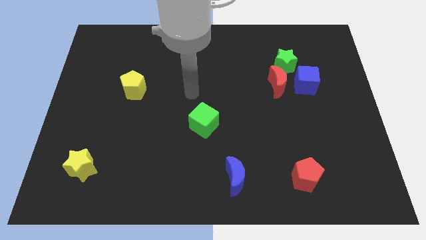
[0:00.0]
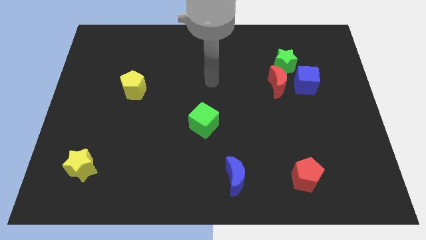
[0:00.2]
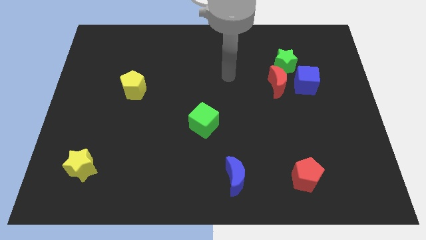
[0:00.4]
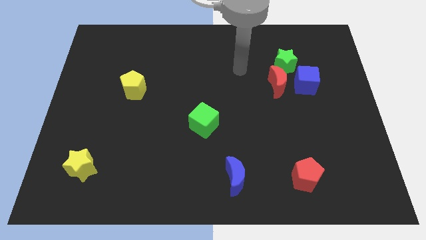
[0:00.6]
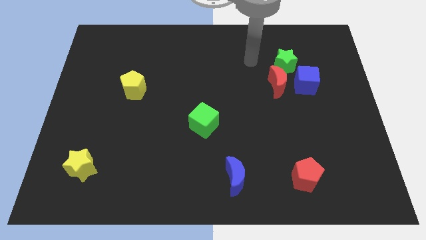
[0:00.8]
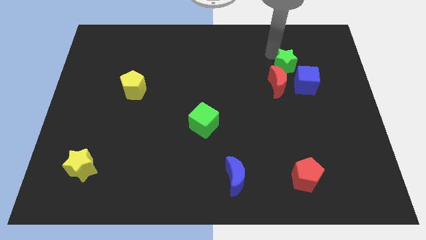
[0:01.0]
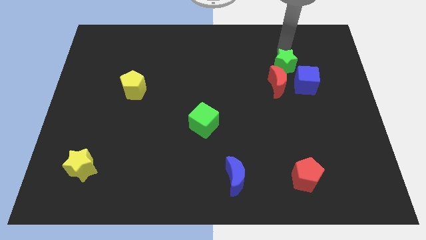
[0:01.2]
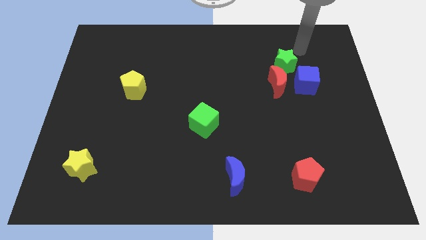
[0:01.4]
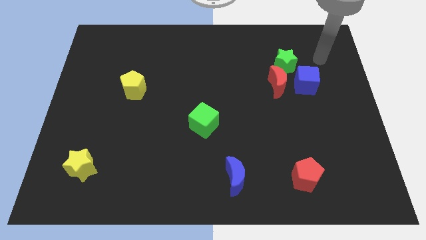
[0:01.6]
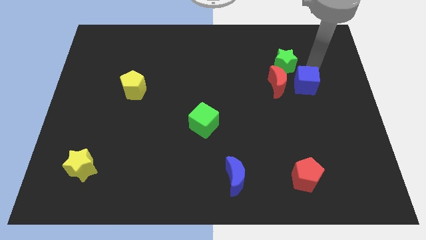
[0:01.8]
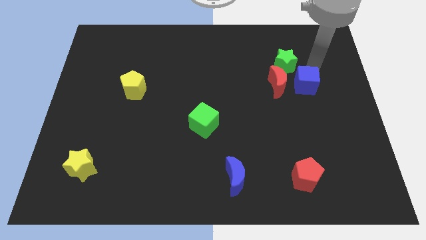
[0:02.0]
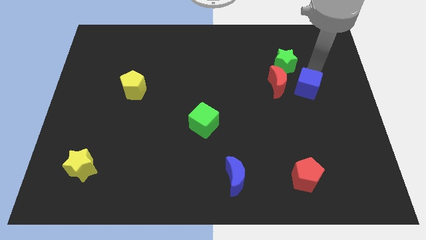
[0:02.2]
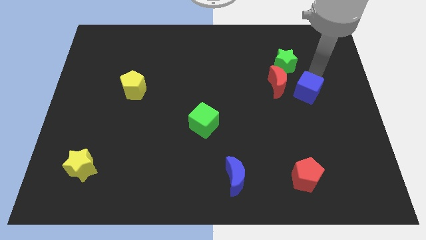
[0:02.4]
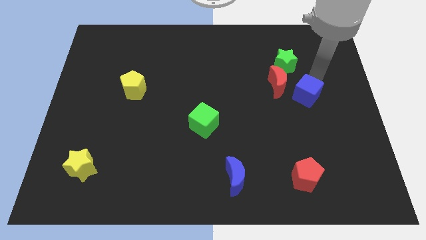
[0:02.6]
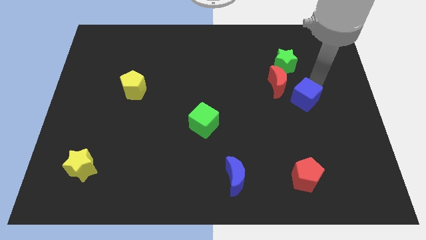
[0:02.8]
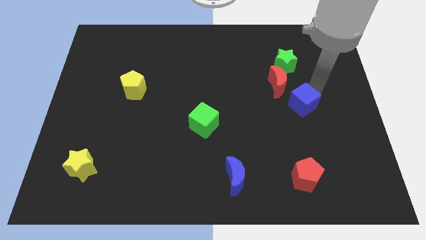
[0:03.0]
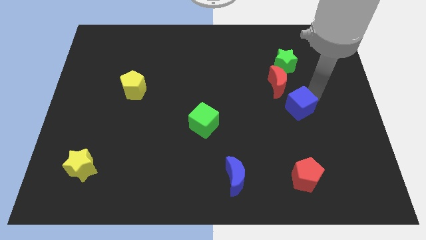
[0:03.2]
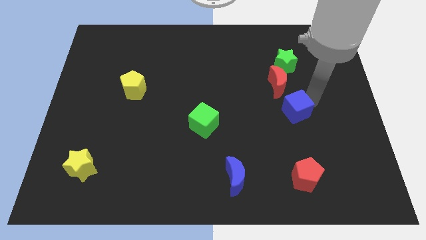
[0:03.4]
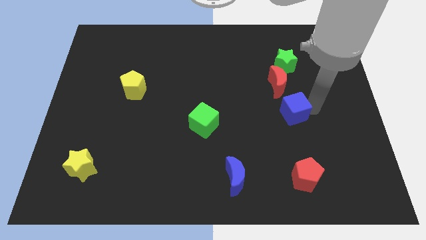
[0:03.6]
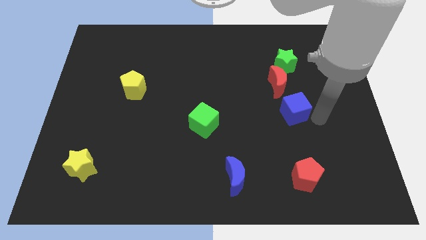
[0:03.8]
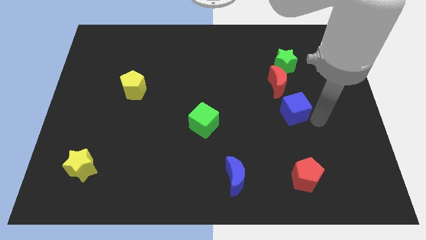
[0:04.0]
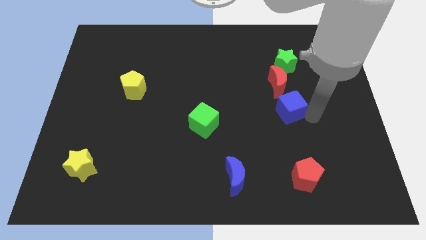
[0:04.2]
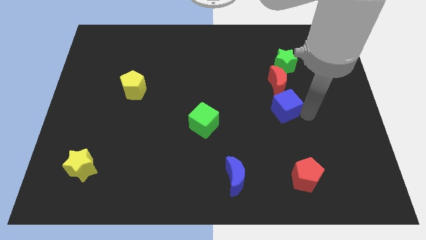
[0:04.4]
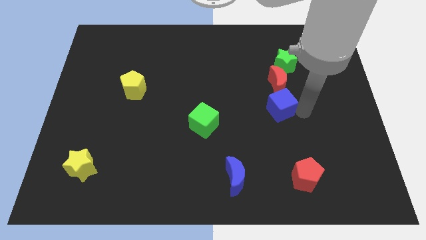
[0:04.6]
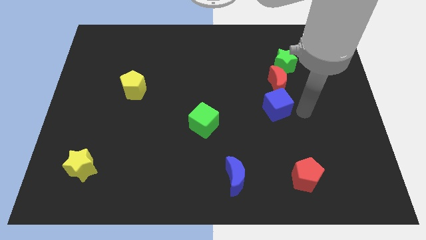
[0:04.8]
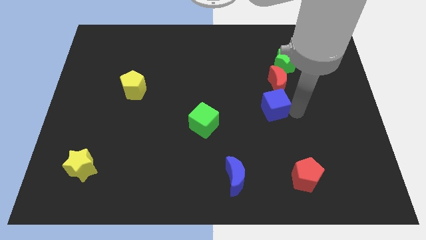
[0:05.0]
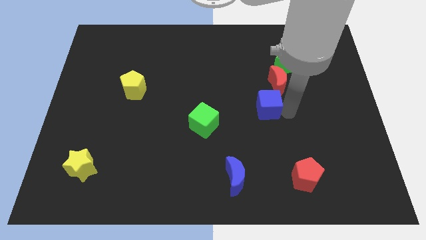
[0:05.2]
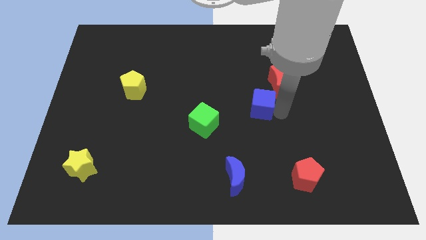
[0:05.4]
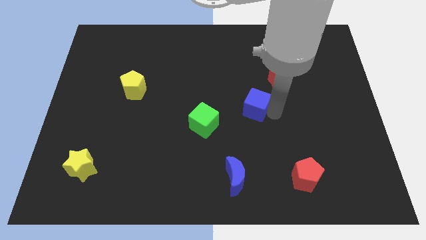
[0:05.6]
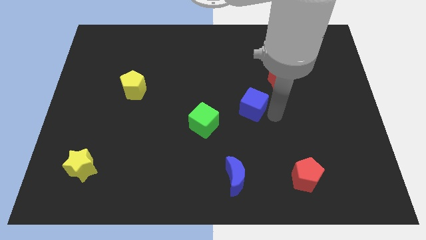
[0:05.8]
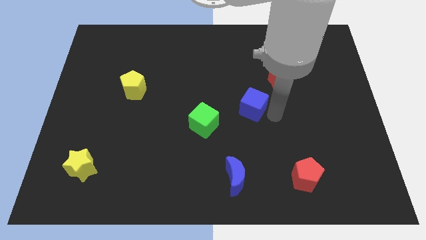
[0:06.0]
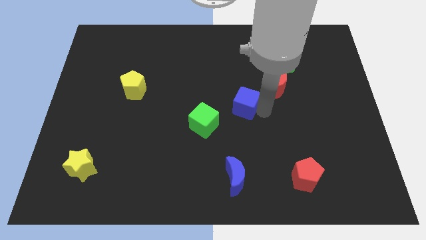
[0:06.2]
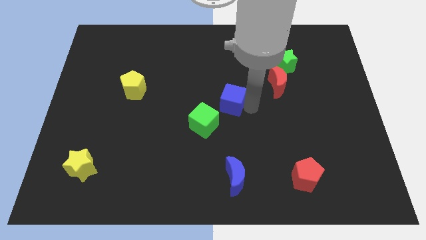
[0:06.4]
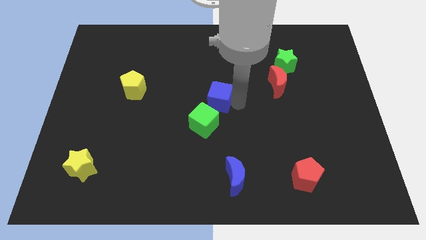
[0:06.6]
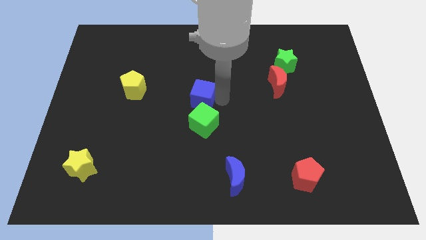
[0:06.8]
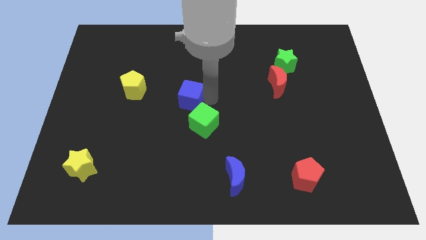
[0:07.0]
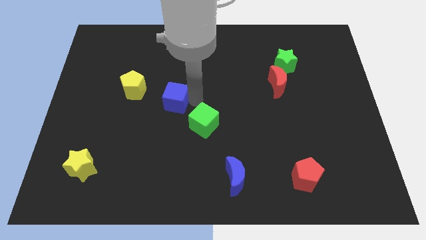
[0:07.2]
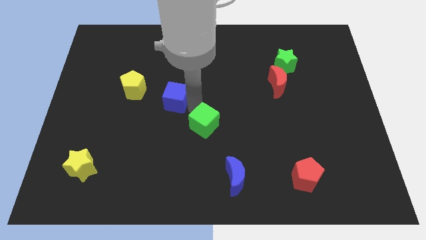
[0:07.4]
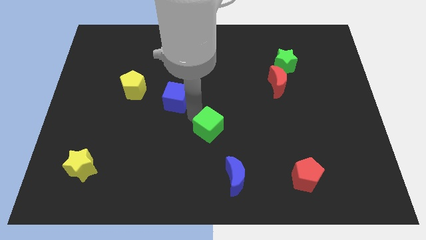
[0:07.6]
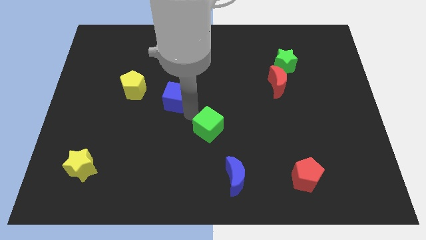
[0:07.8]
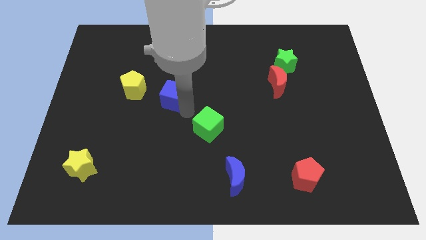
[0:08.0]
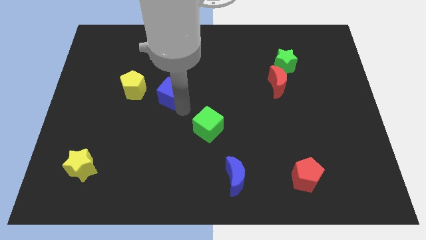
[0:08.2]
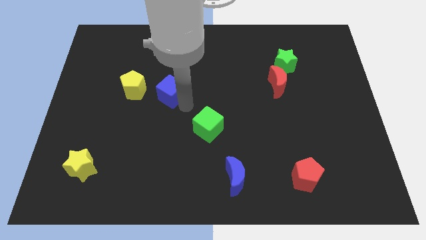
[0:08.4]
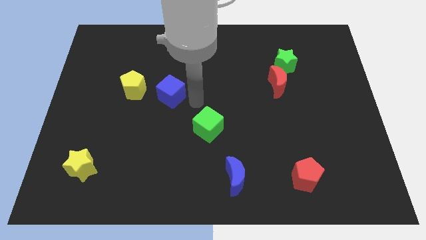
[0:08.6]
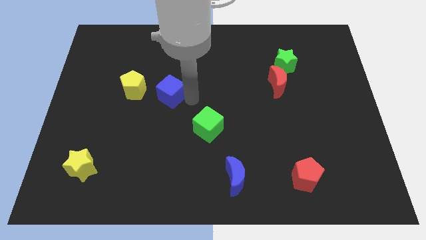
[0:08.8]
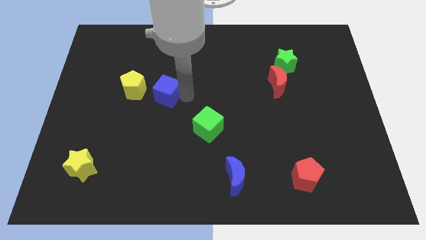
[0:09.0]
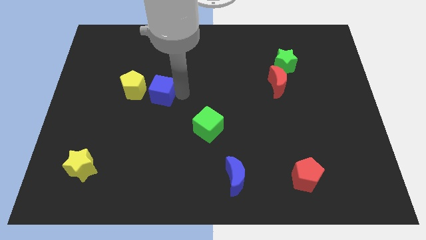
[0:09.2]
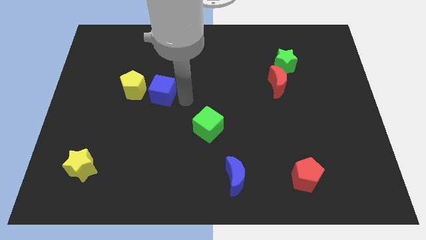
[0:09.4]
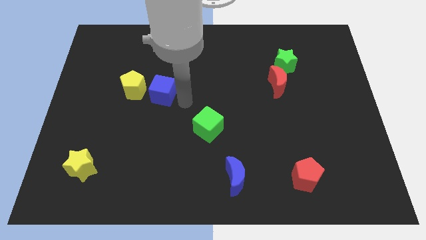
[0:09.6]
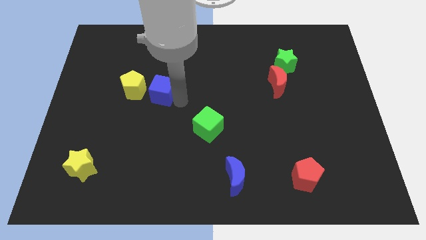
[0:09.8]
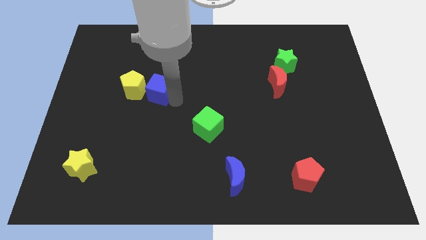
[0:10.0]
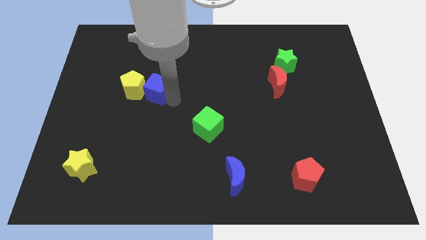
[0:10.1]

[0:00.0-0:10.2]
slide the blue cube next to the yellow pentagon

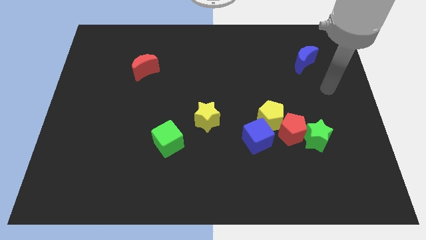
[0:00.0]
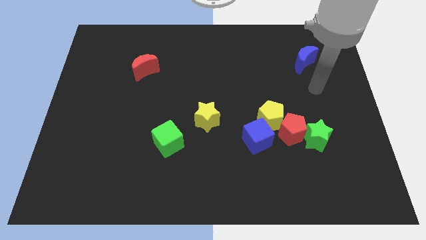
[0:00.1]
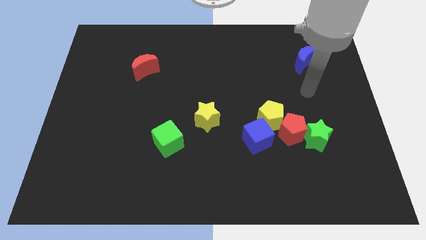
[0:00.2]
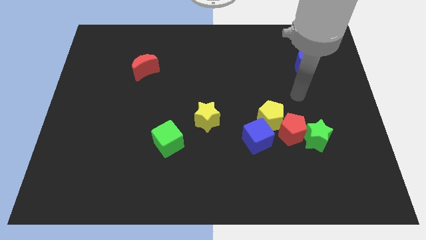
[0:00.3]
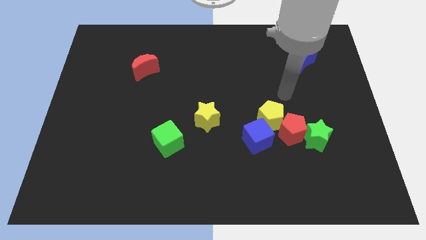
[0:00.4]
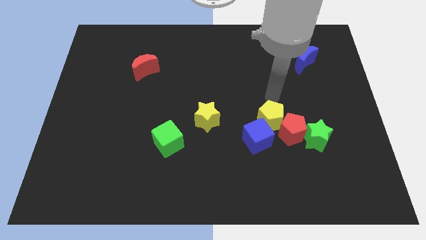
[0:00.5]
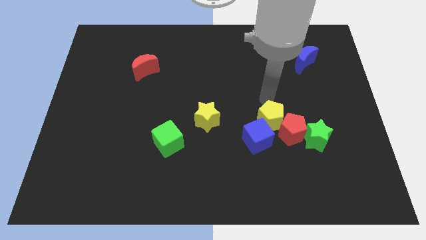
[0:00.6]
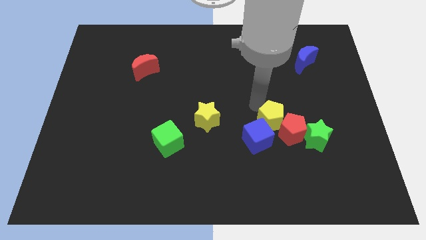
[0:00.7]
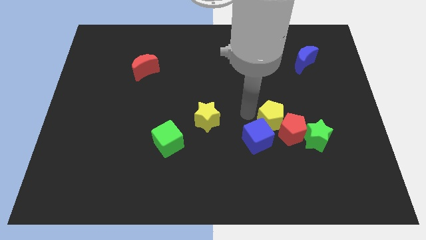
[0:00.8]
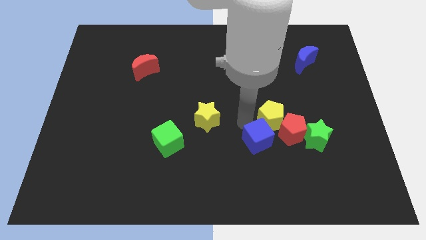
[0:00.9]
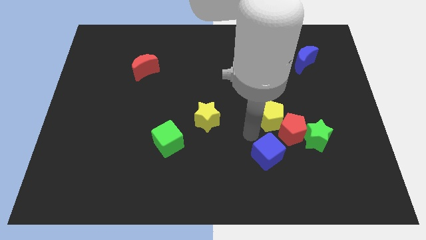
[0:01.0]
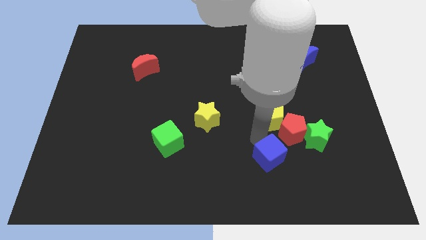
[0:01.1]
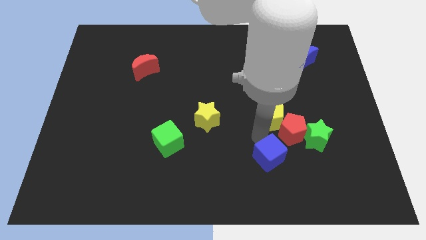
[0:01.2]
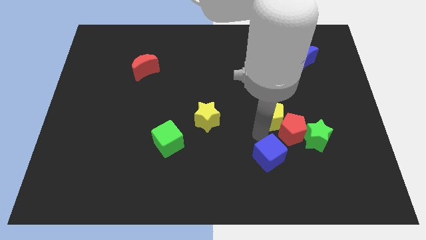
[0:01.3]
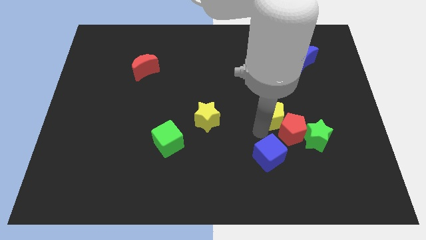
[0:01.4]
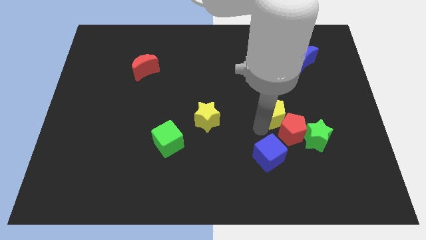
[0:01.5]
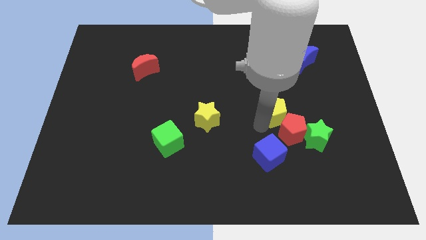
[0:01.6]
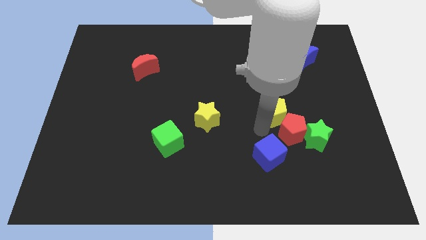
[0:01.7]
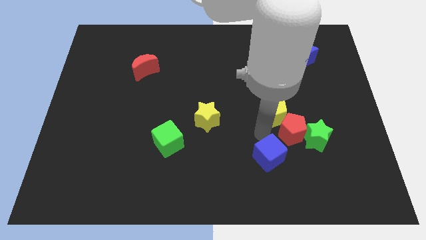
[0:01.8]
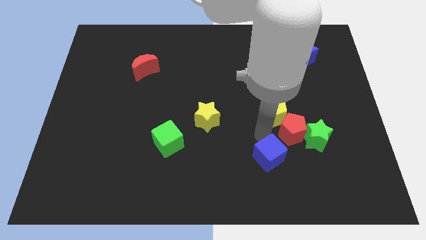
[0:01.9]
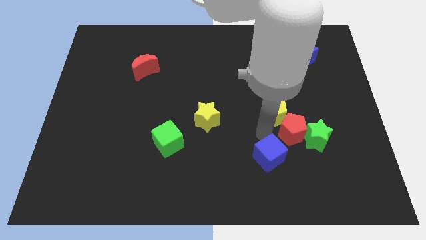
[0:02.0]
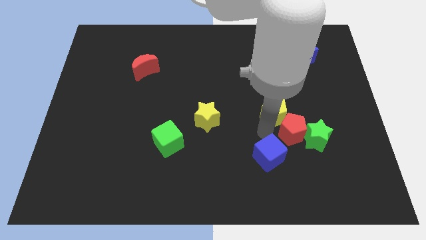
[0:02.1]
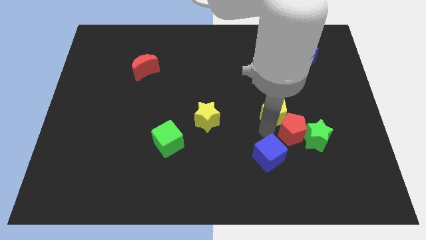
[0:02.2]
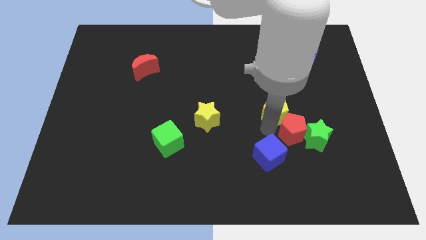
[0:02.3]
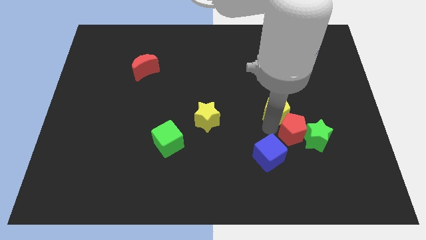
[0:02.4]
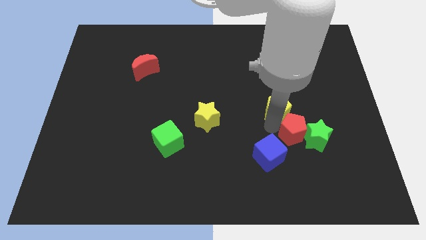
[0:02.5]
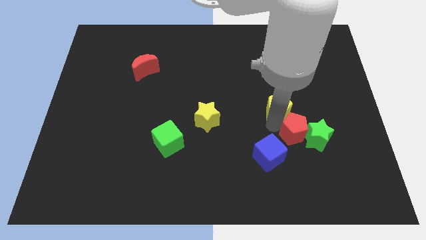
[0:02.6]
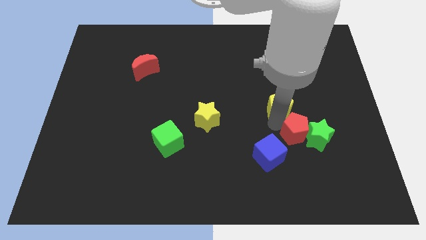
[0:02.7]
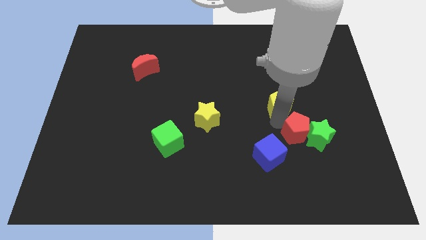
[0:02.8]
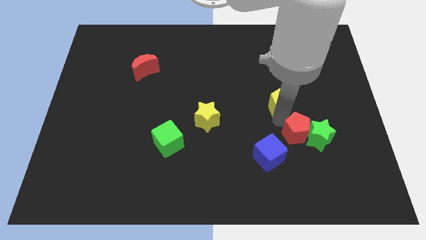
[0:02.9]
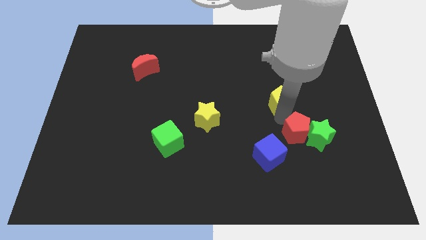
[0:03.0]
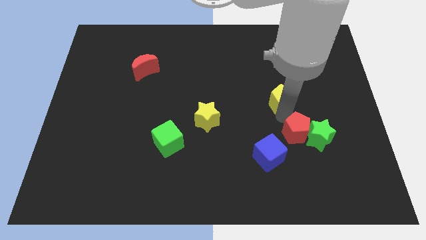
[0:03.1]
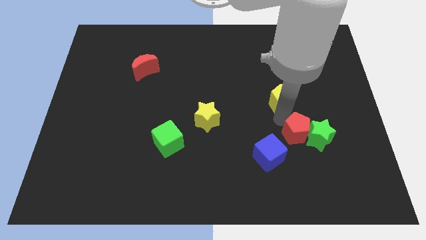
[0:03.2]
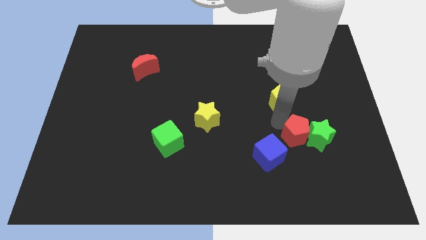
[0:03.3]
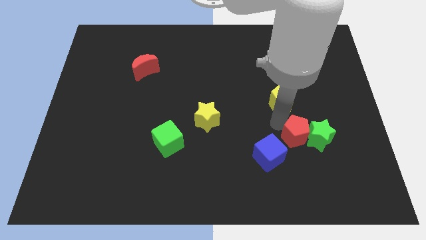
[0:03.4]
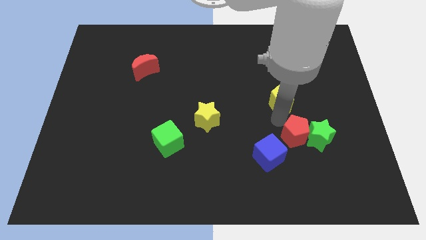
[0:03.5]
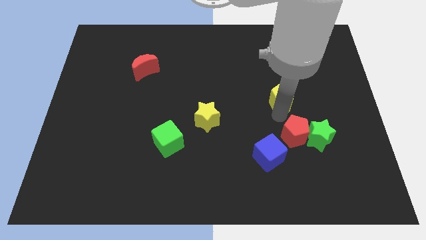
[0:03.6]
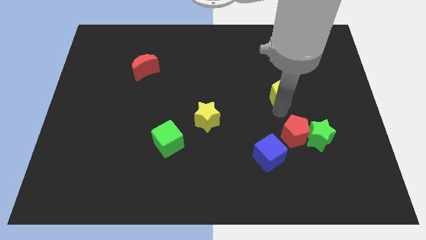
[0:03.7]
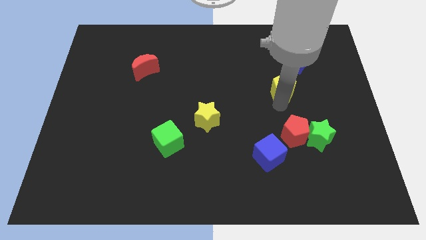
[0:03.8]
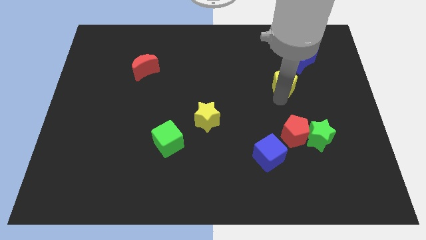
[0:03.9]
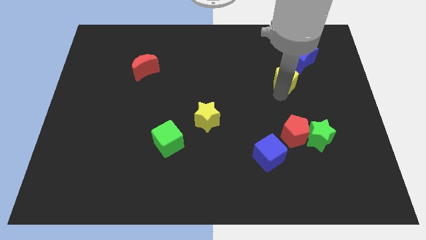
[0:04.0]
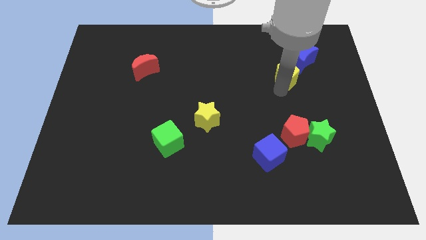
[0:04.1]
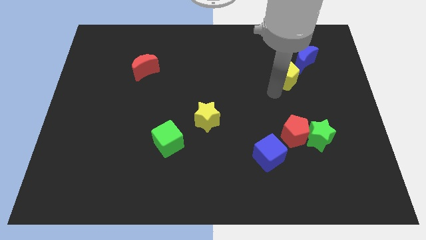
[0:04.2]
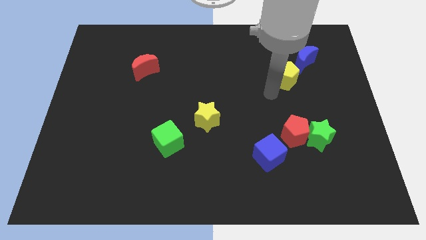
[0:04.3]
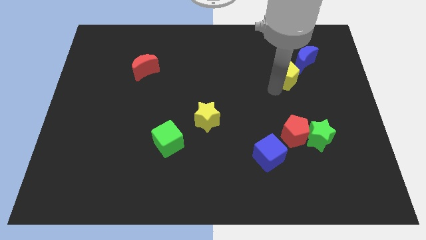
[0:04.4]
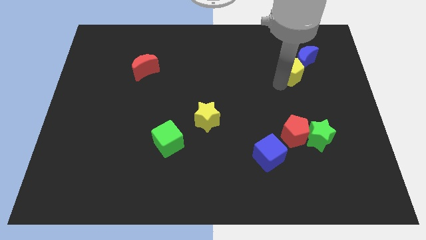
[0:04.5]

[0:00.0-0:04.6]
put the yellow pentagon close to the blue moon
